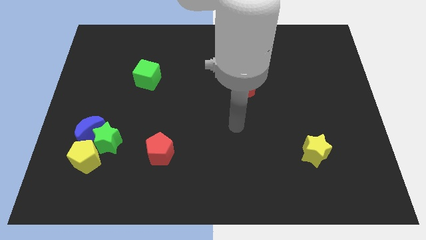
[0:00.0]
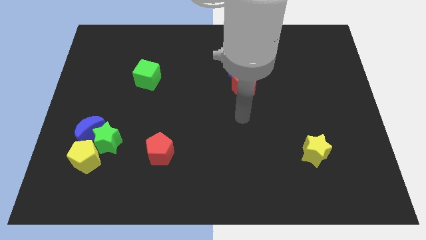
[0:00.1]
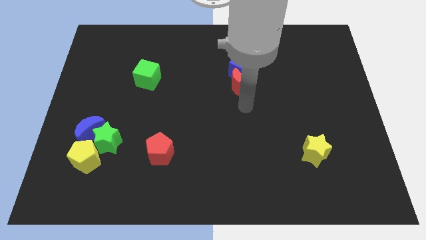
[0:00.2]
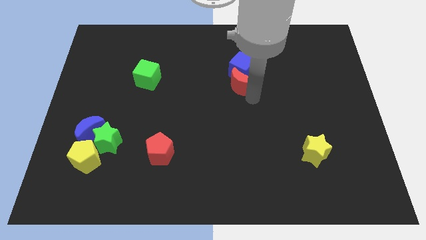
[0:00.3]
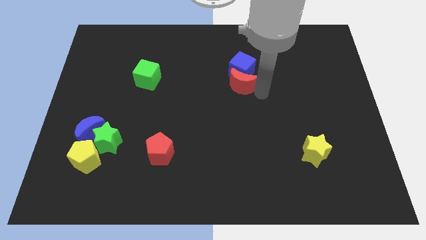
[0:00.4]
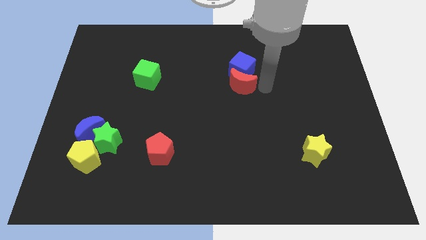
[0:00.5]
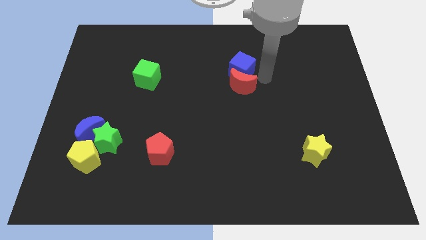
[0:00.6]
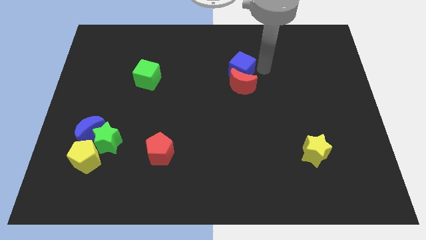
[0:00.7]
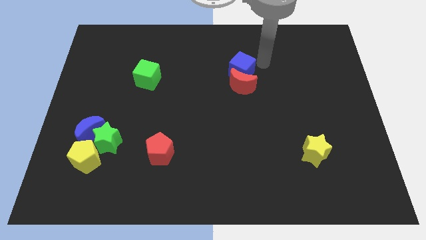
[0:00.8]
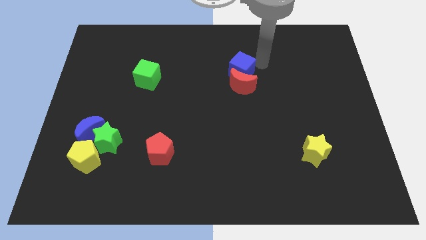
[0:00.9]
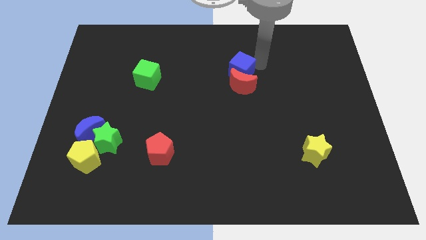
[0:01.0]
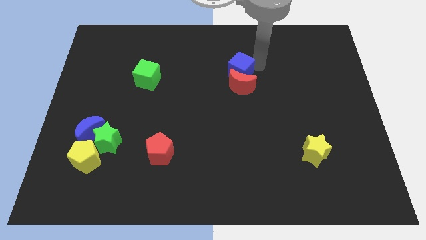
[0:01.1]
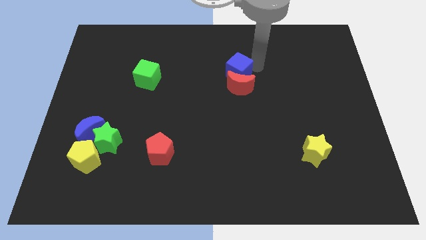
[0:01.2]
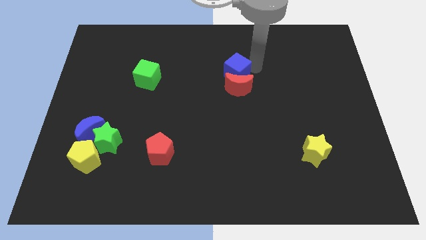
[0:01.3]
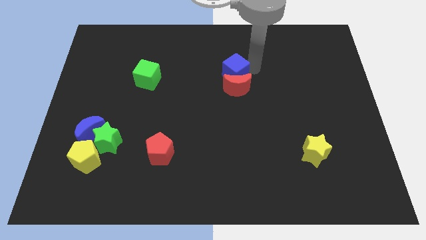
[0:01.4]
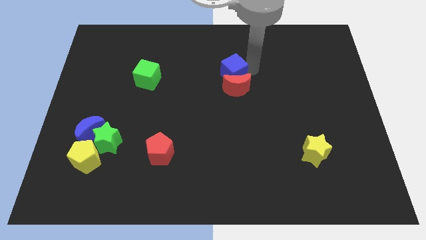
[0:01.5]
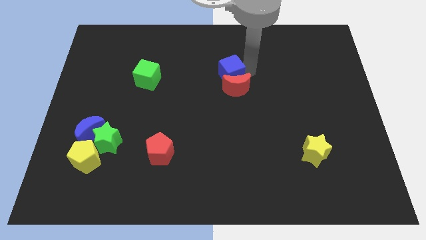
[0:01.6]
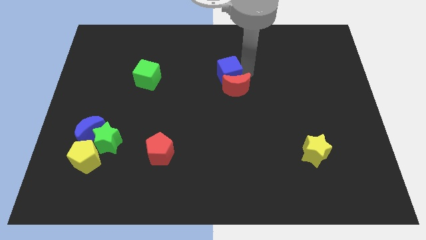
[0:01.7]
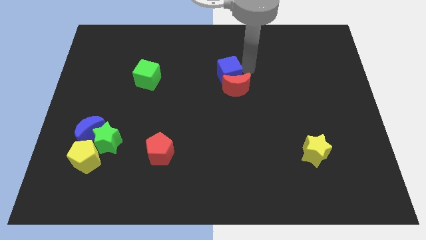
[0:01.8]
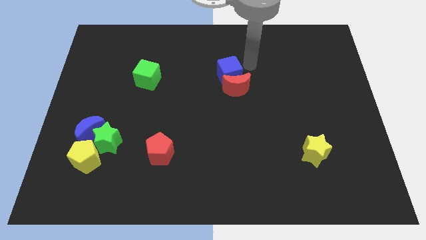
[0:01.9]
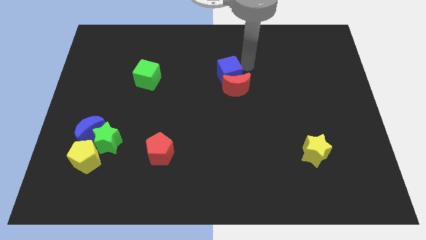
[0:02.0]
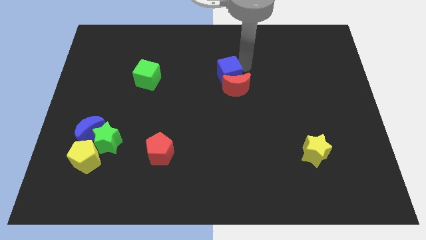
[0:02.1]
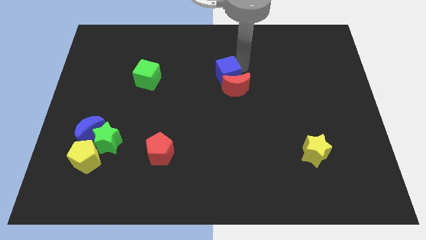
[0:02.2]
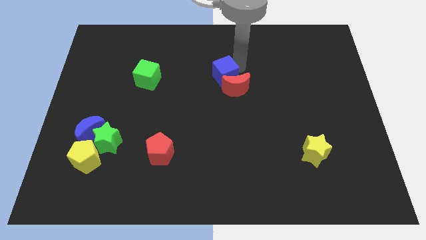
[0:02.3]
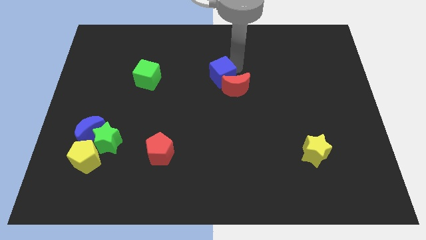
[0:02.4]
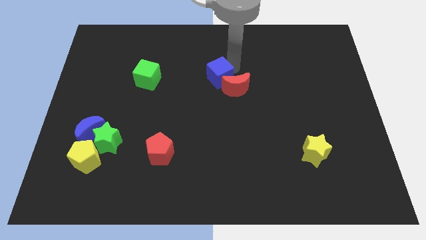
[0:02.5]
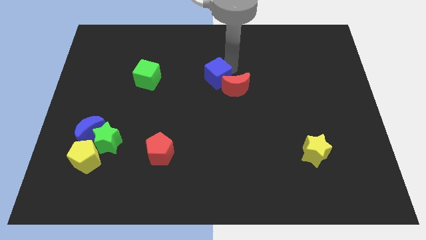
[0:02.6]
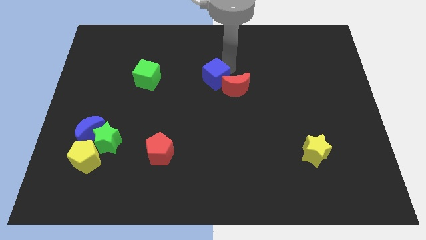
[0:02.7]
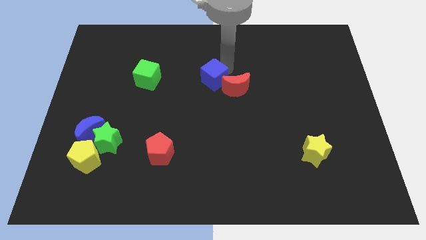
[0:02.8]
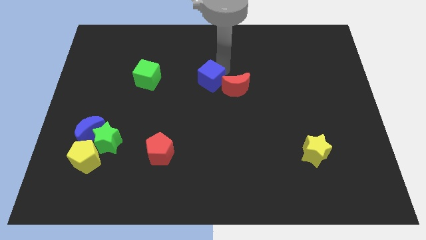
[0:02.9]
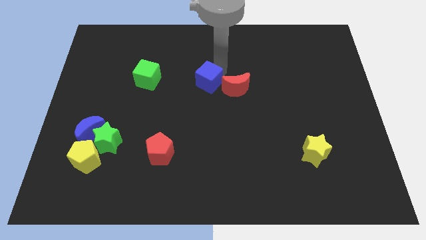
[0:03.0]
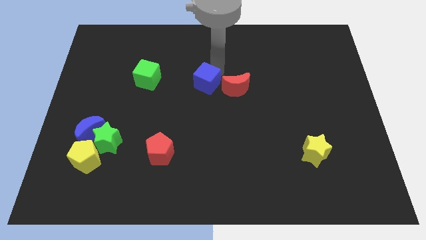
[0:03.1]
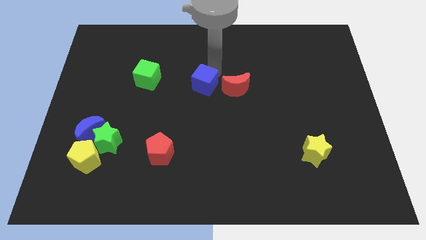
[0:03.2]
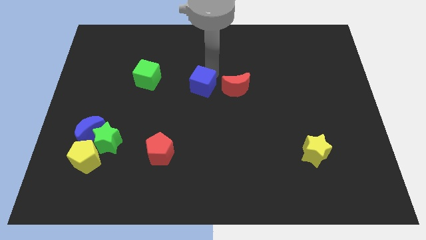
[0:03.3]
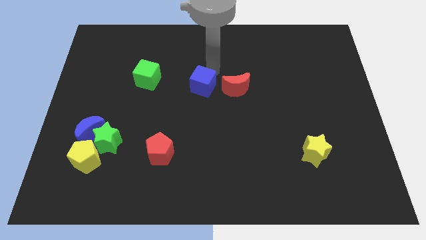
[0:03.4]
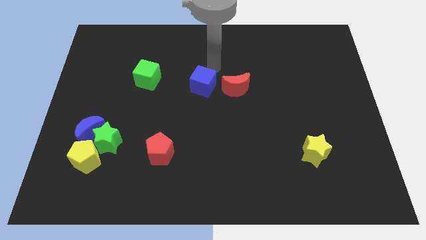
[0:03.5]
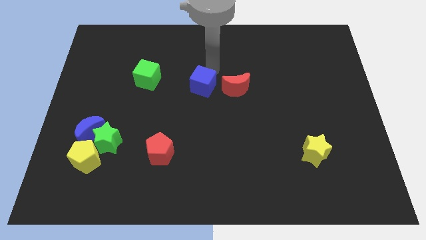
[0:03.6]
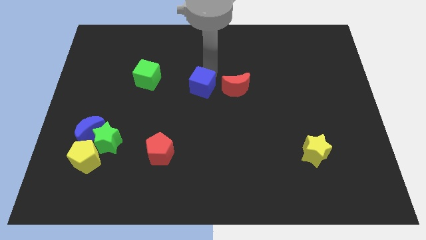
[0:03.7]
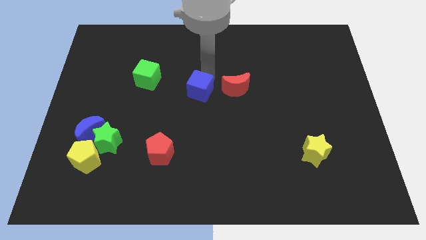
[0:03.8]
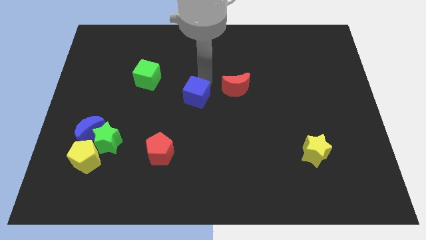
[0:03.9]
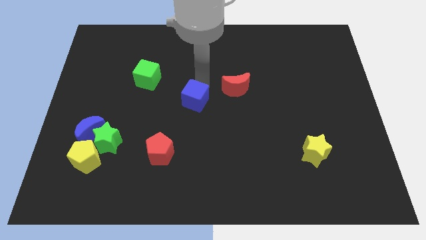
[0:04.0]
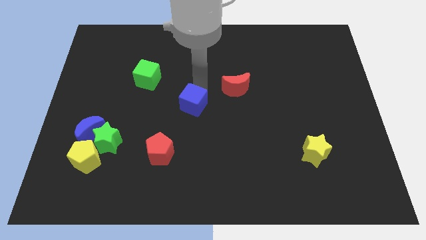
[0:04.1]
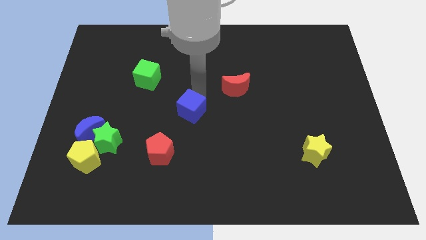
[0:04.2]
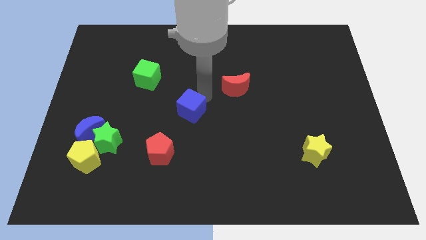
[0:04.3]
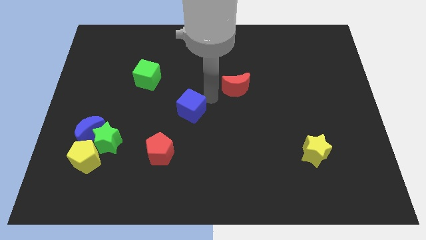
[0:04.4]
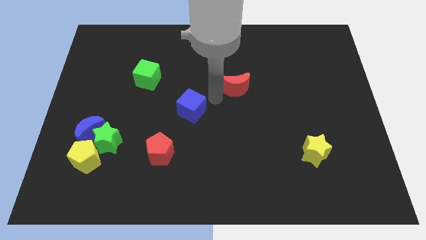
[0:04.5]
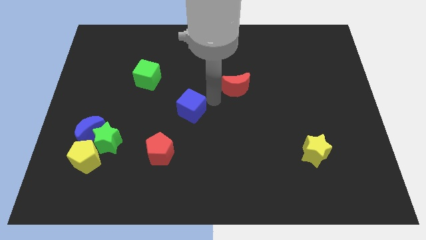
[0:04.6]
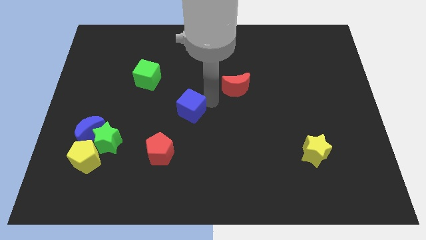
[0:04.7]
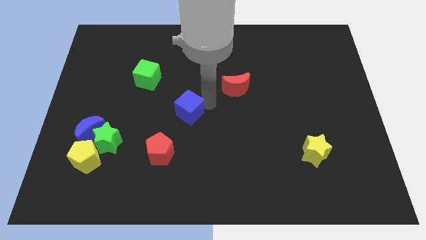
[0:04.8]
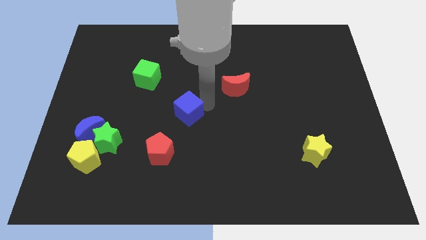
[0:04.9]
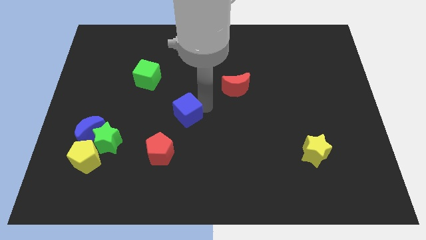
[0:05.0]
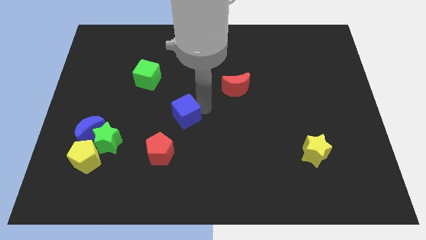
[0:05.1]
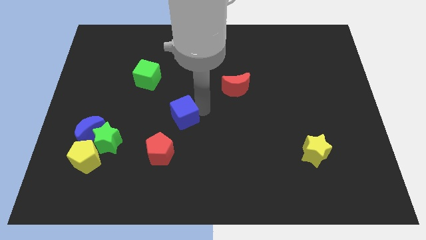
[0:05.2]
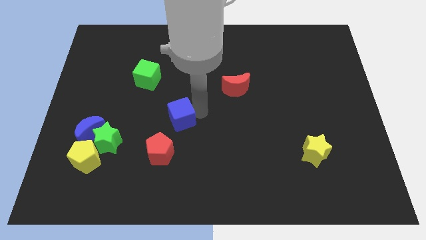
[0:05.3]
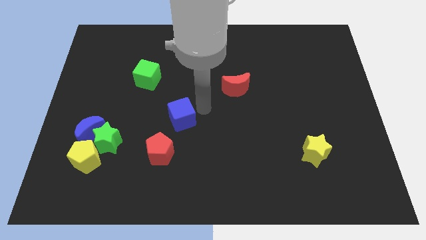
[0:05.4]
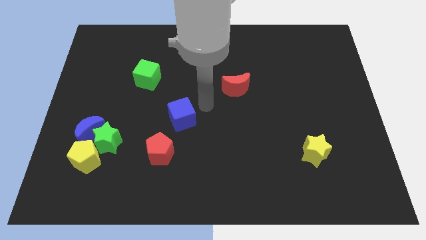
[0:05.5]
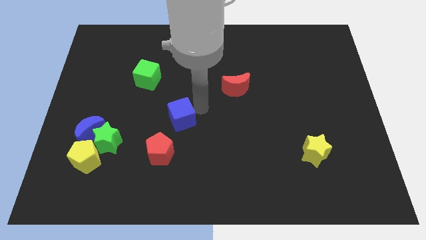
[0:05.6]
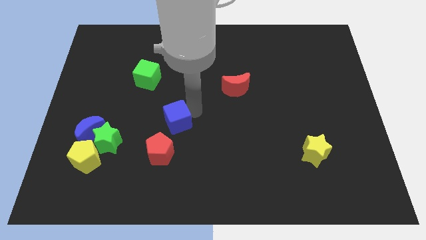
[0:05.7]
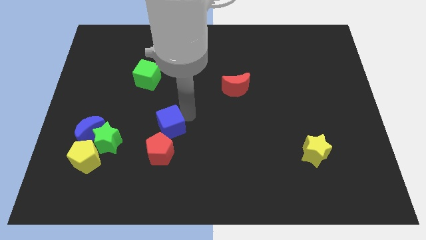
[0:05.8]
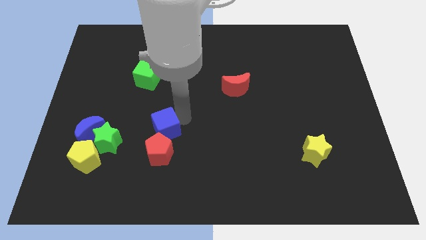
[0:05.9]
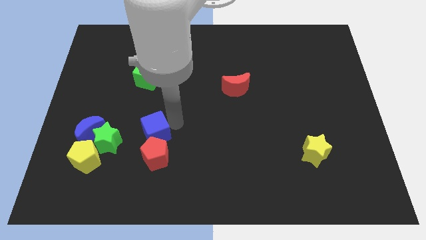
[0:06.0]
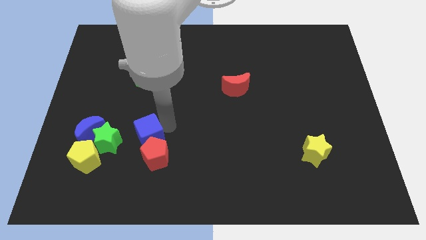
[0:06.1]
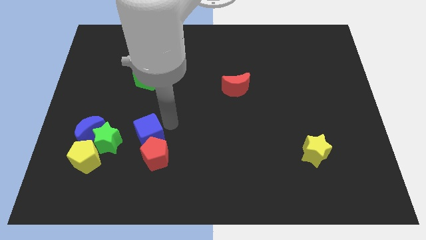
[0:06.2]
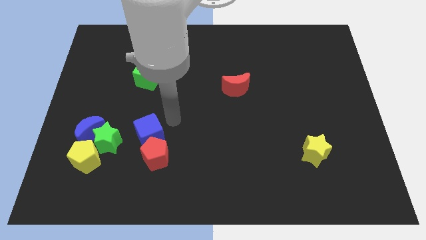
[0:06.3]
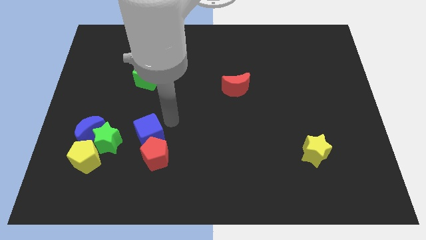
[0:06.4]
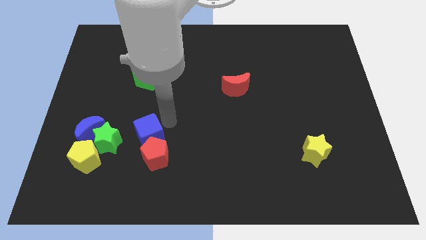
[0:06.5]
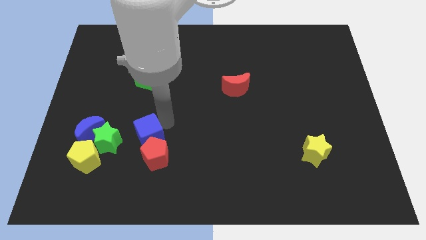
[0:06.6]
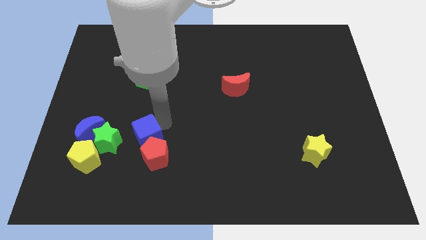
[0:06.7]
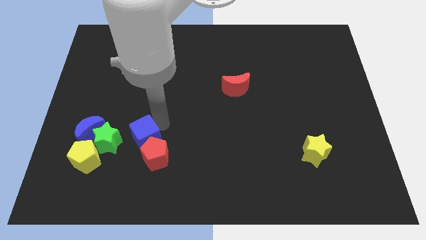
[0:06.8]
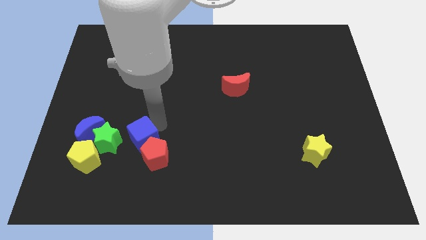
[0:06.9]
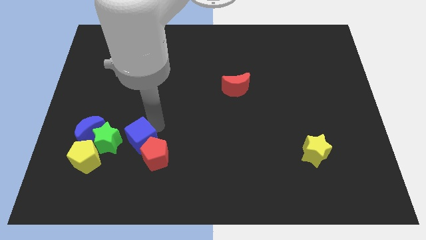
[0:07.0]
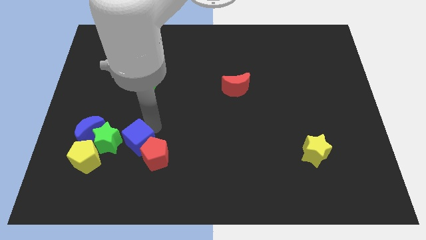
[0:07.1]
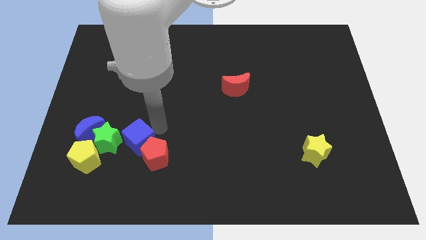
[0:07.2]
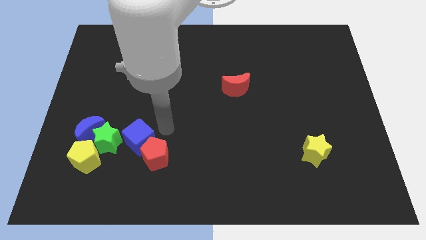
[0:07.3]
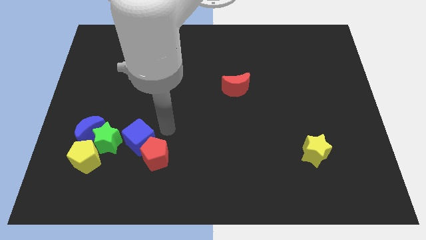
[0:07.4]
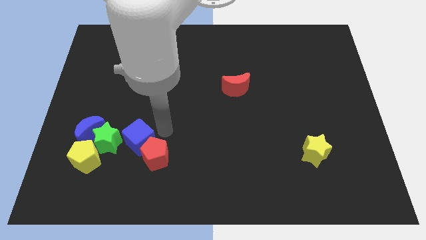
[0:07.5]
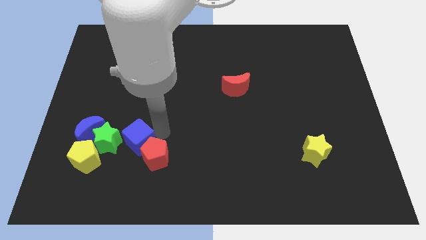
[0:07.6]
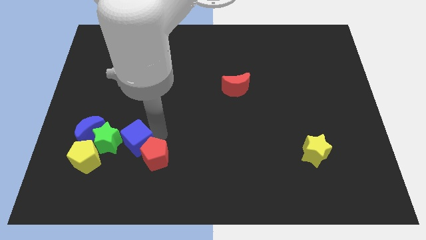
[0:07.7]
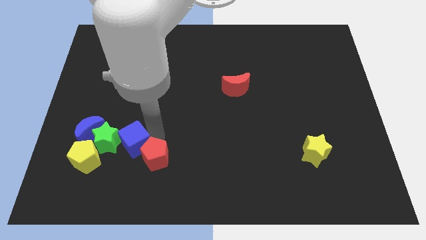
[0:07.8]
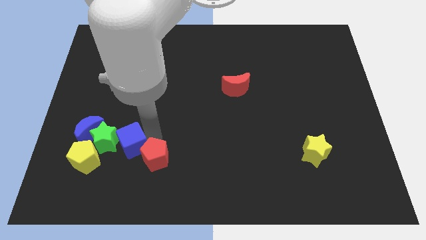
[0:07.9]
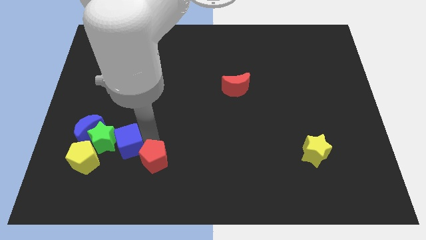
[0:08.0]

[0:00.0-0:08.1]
slide the blue cube to the bottom right of the blue moon
